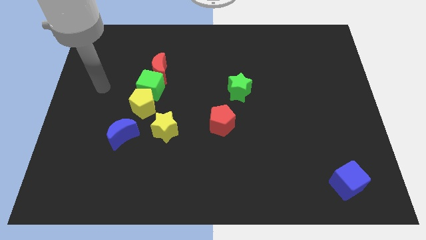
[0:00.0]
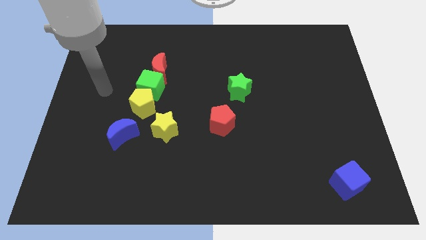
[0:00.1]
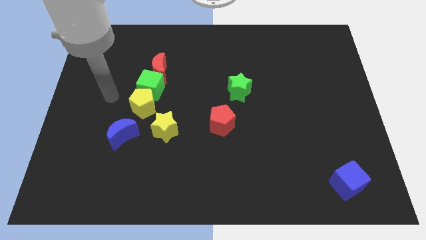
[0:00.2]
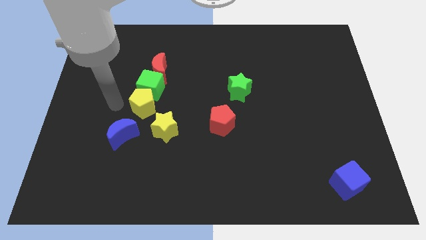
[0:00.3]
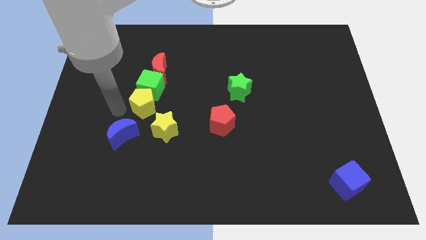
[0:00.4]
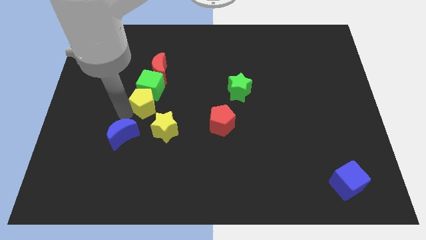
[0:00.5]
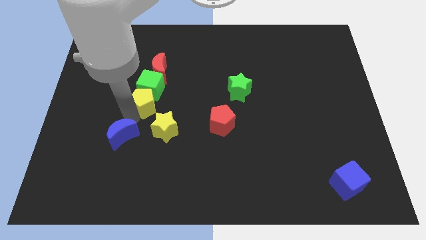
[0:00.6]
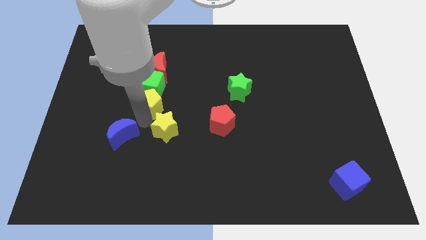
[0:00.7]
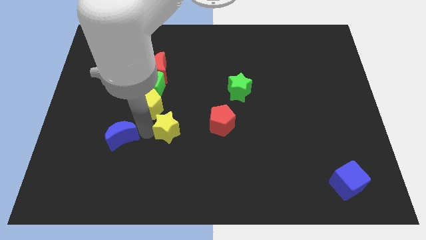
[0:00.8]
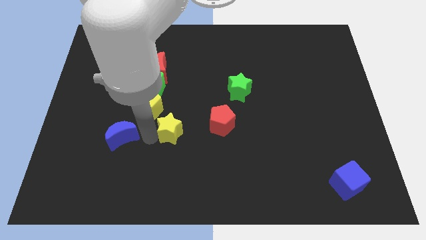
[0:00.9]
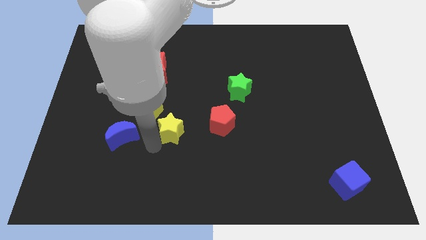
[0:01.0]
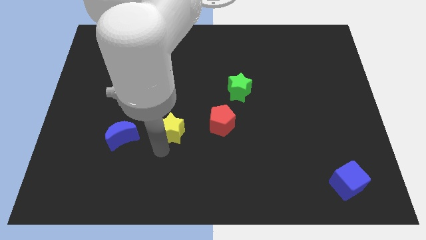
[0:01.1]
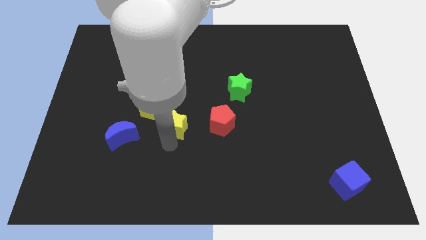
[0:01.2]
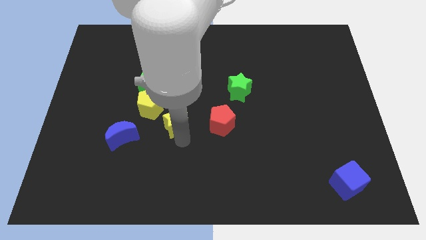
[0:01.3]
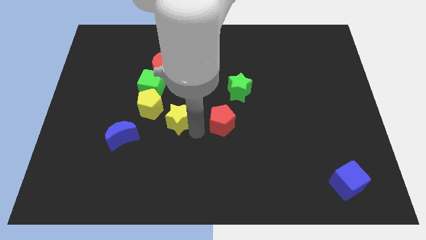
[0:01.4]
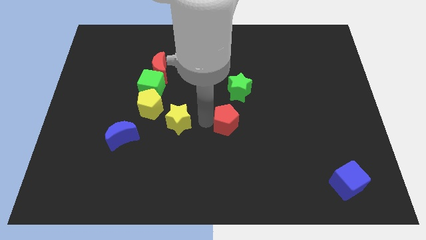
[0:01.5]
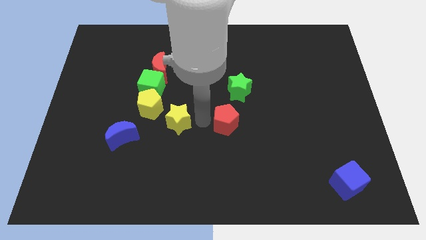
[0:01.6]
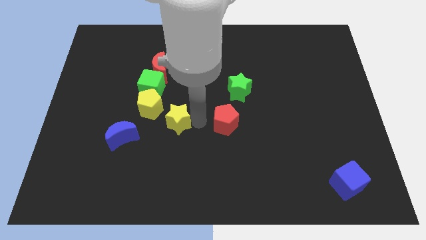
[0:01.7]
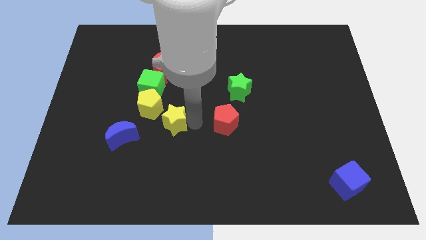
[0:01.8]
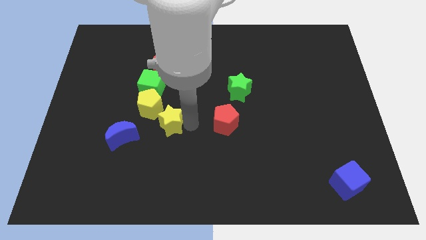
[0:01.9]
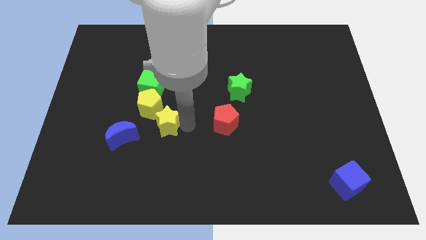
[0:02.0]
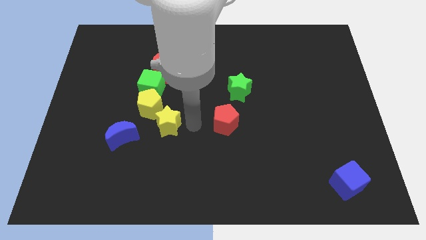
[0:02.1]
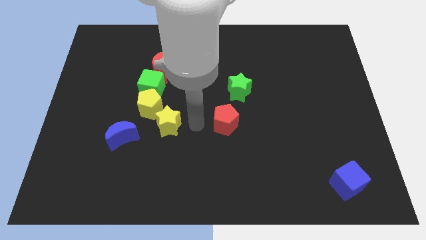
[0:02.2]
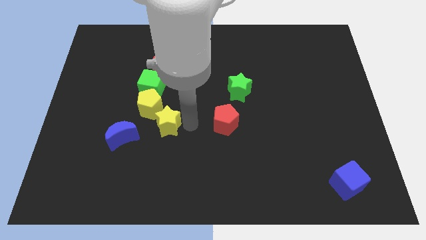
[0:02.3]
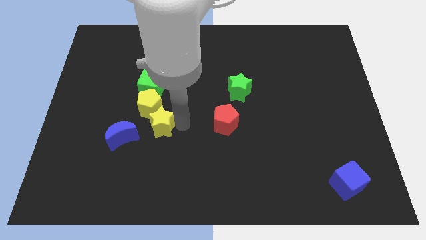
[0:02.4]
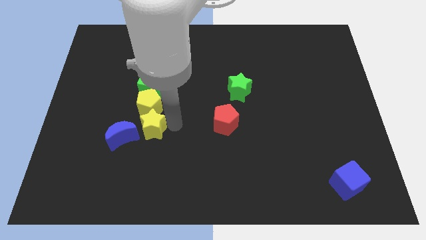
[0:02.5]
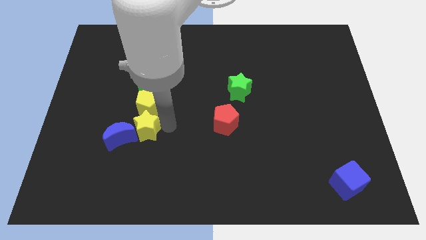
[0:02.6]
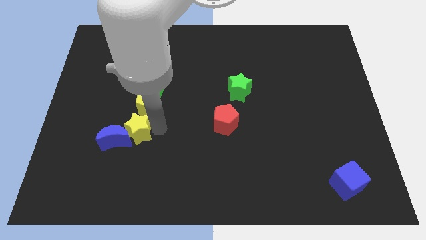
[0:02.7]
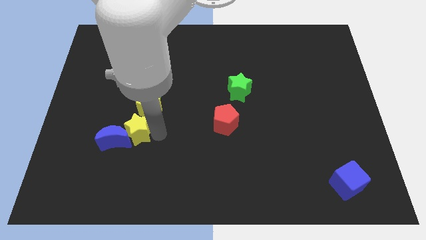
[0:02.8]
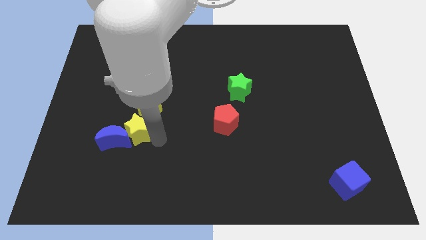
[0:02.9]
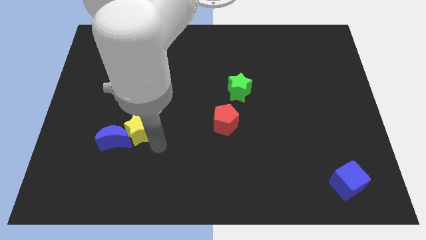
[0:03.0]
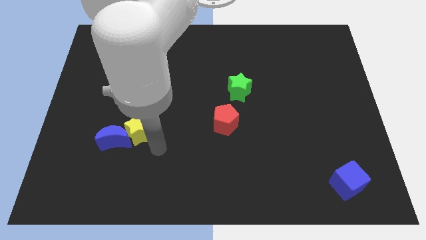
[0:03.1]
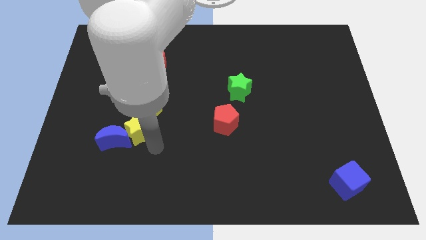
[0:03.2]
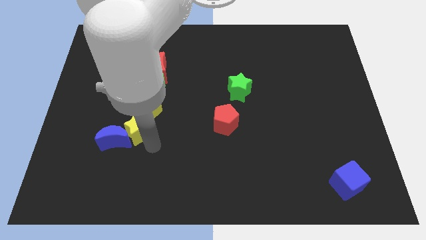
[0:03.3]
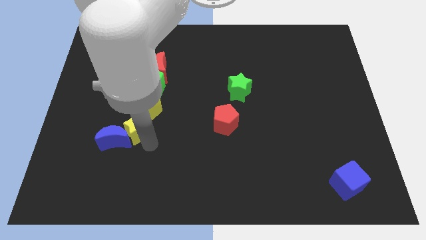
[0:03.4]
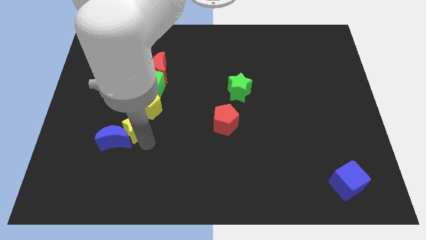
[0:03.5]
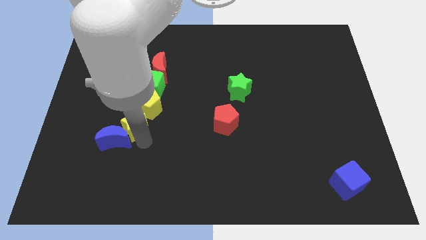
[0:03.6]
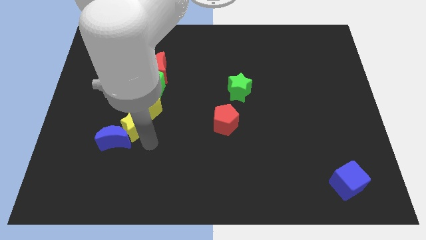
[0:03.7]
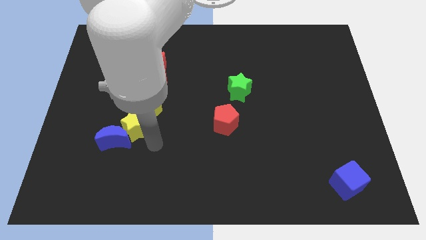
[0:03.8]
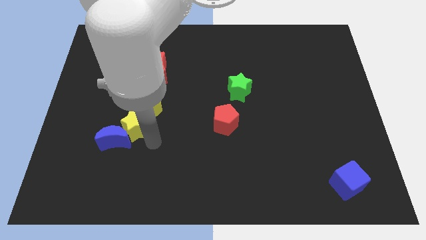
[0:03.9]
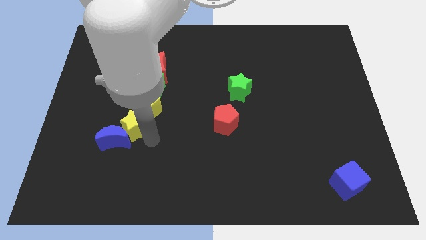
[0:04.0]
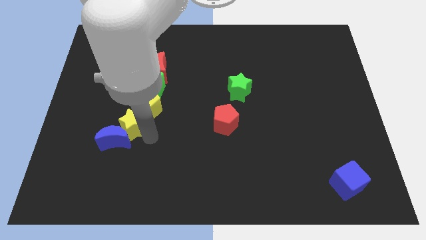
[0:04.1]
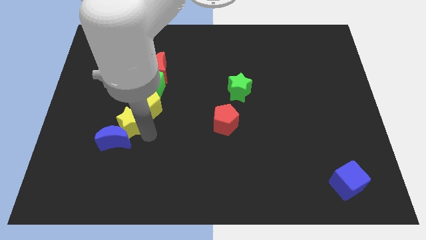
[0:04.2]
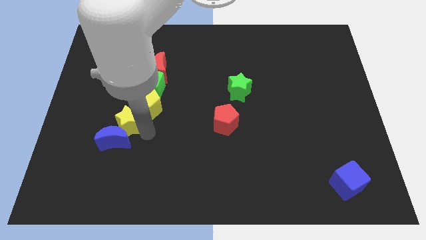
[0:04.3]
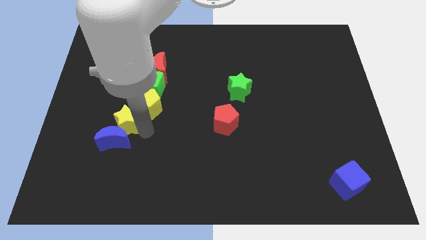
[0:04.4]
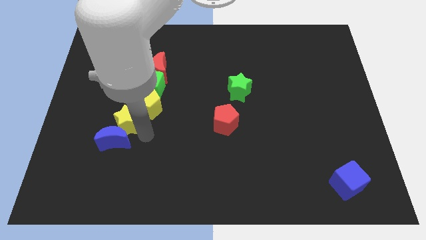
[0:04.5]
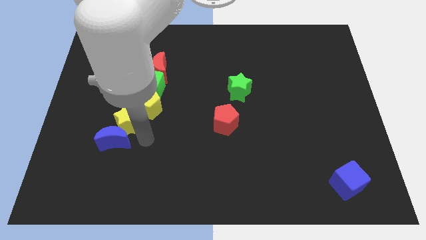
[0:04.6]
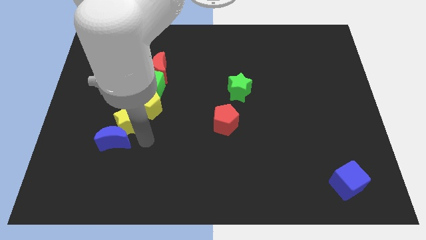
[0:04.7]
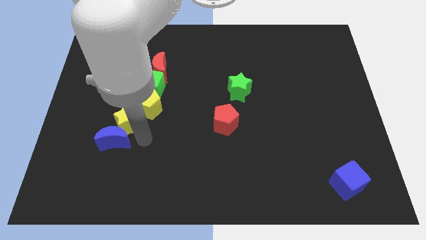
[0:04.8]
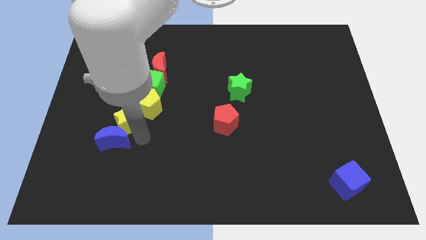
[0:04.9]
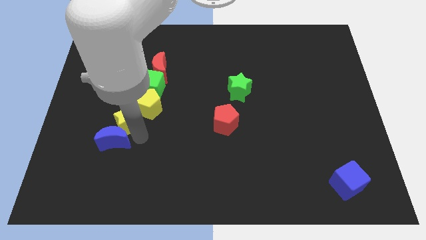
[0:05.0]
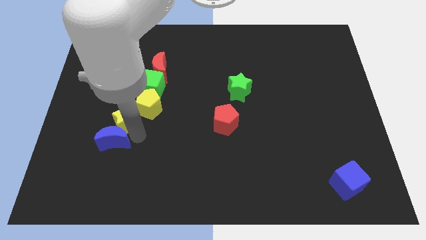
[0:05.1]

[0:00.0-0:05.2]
push the yellow star diagonally up and to the left of the blue moon

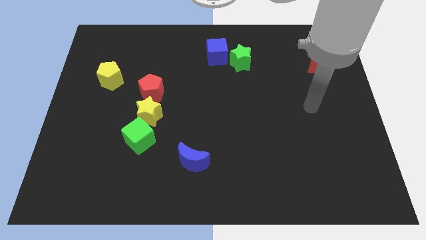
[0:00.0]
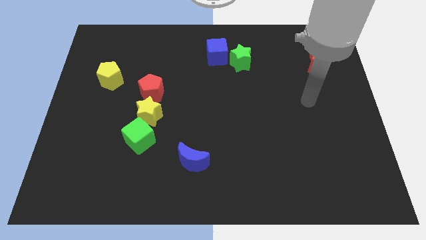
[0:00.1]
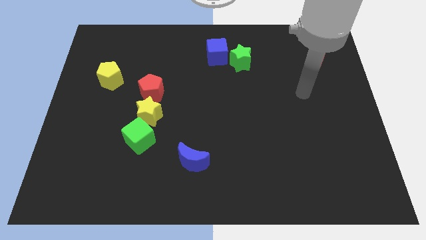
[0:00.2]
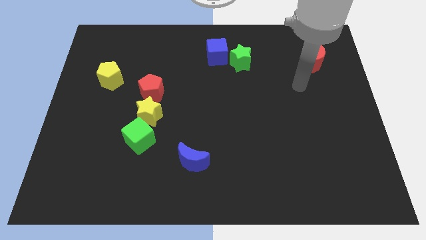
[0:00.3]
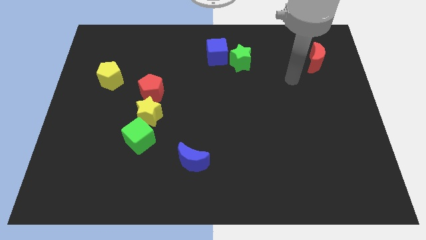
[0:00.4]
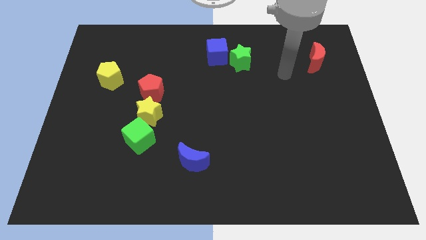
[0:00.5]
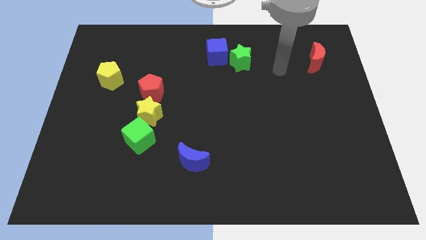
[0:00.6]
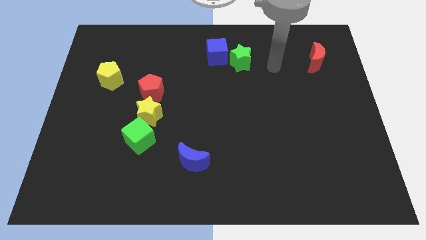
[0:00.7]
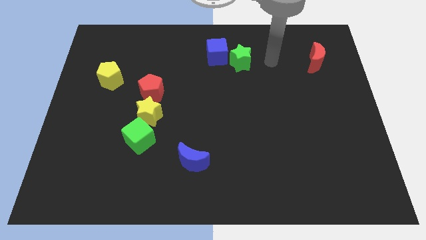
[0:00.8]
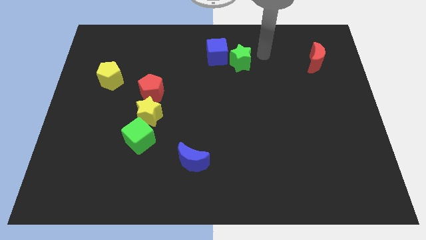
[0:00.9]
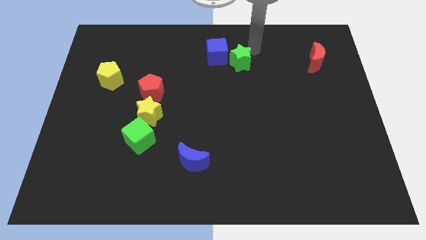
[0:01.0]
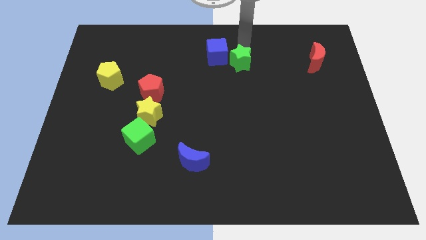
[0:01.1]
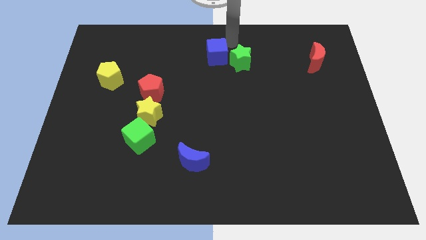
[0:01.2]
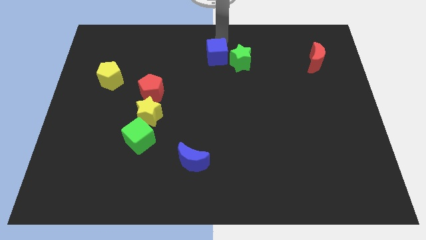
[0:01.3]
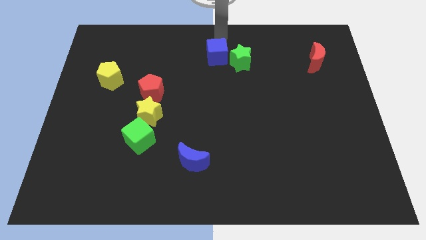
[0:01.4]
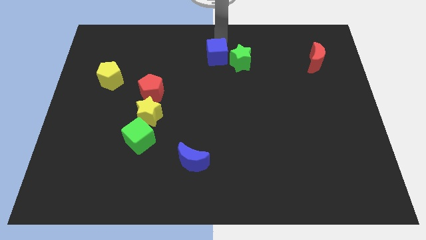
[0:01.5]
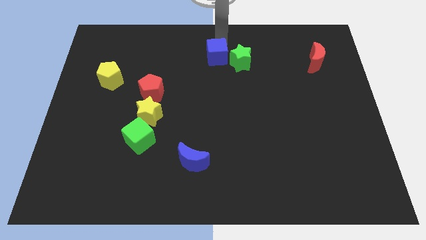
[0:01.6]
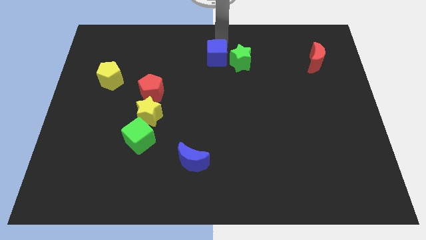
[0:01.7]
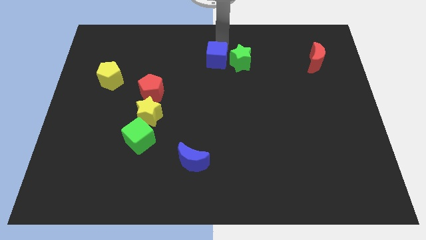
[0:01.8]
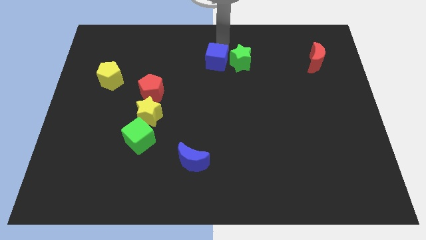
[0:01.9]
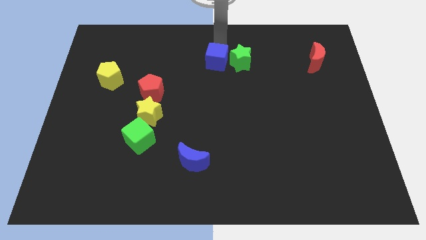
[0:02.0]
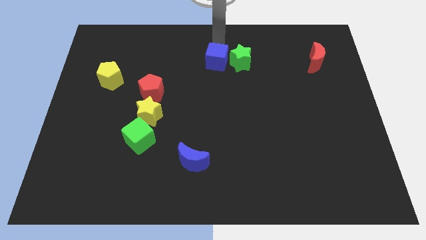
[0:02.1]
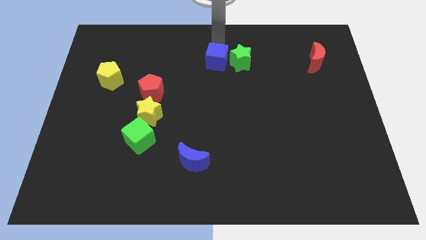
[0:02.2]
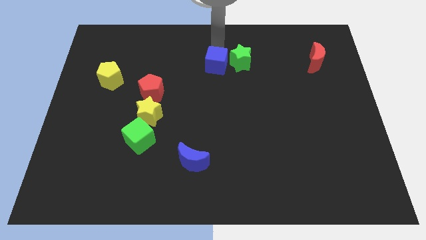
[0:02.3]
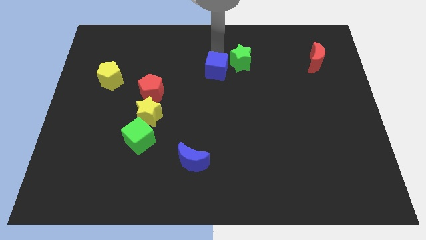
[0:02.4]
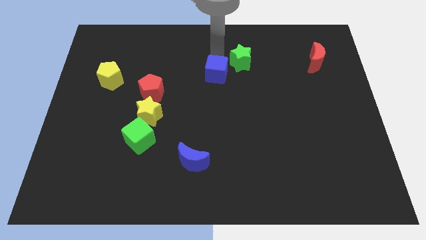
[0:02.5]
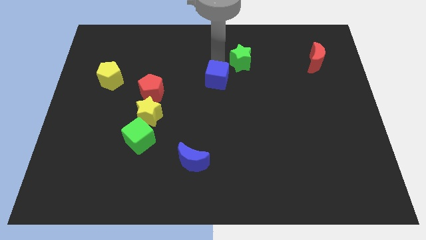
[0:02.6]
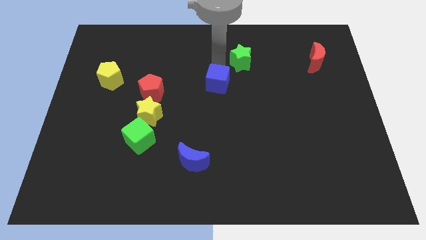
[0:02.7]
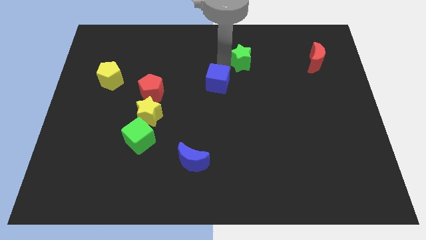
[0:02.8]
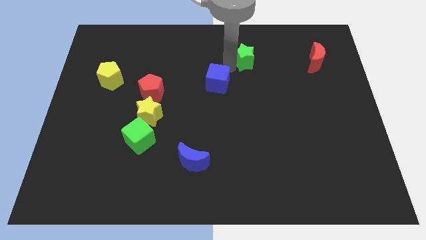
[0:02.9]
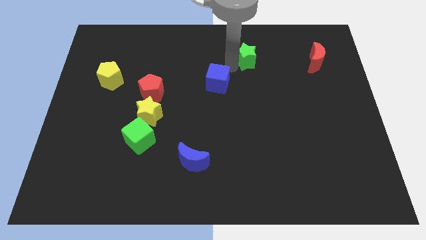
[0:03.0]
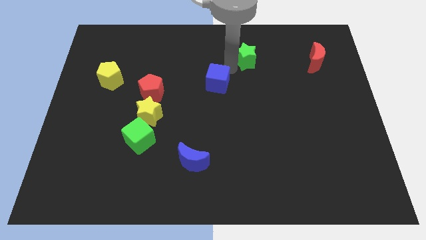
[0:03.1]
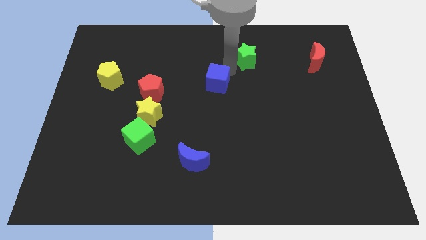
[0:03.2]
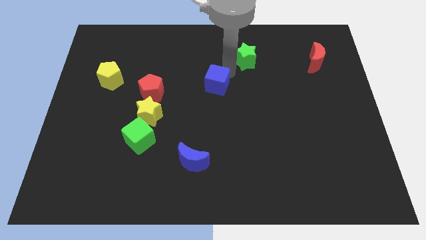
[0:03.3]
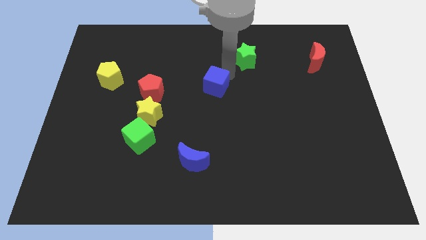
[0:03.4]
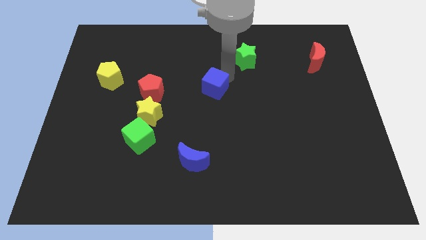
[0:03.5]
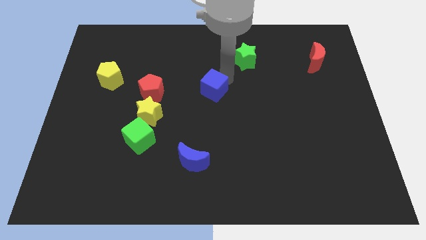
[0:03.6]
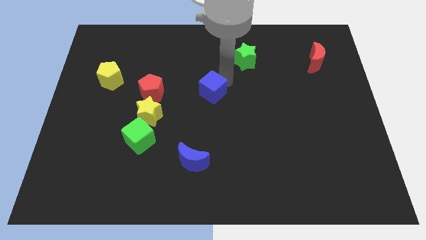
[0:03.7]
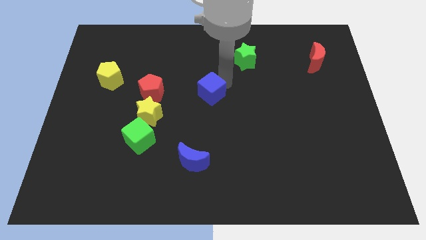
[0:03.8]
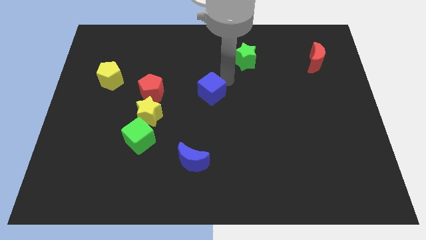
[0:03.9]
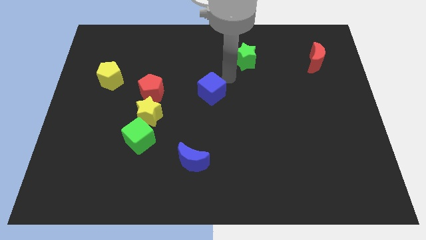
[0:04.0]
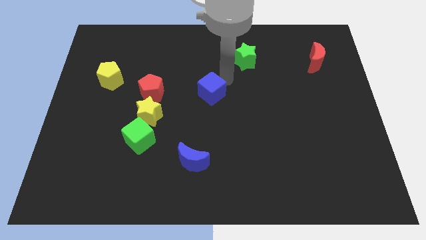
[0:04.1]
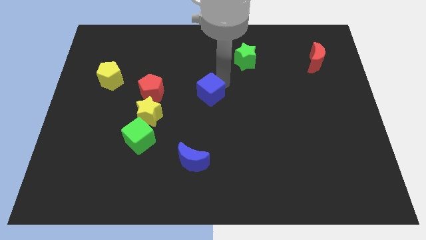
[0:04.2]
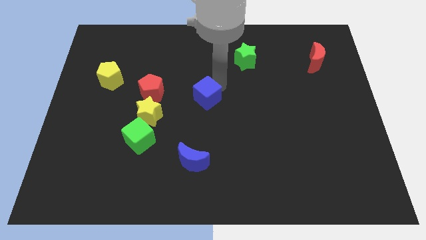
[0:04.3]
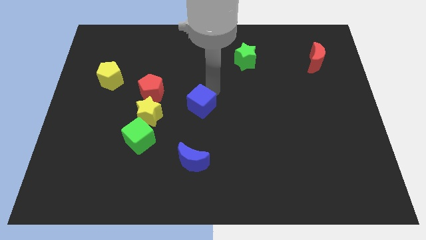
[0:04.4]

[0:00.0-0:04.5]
push the blue cube to the top of the blue moon
